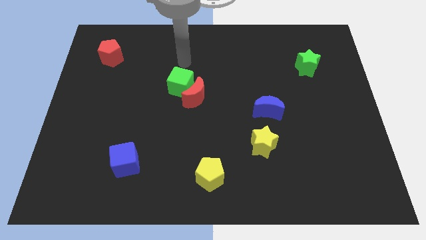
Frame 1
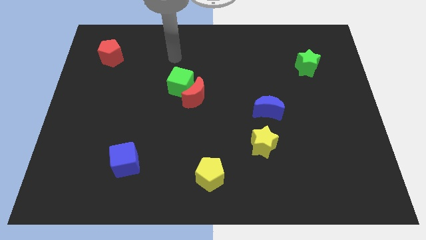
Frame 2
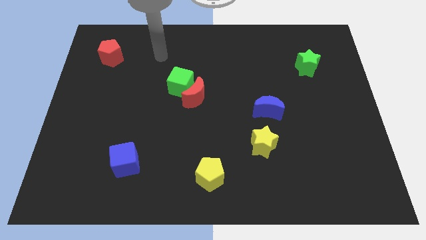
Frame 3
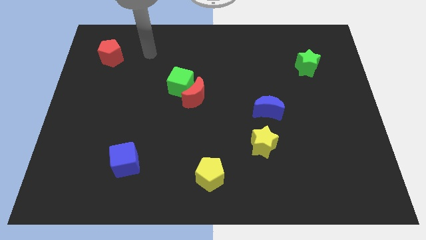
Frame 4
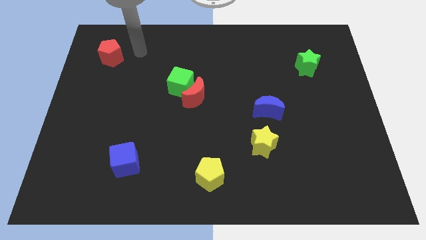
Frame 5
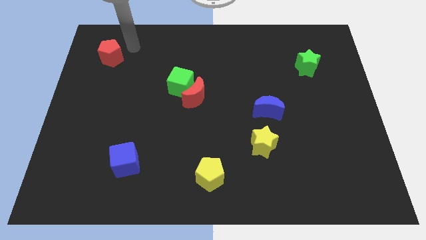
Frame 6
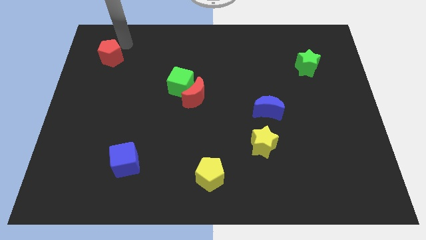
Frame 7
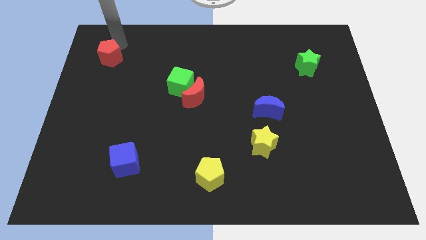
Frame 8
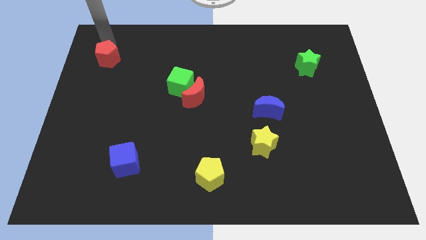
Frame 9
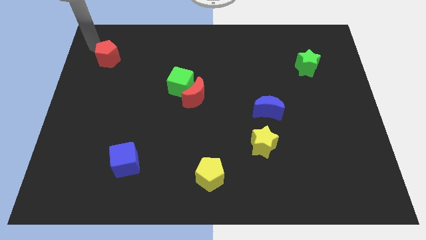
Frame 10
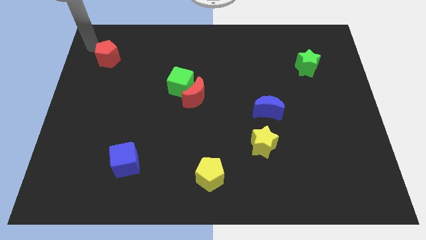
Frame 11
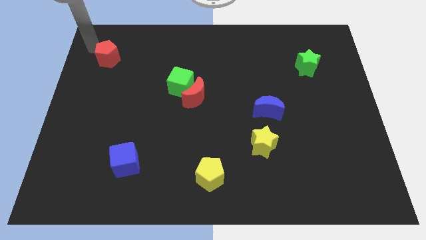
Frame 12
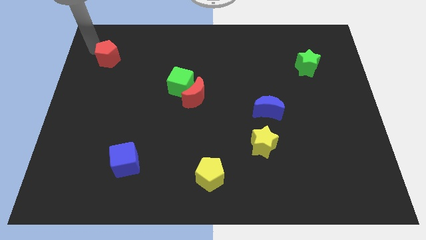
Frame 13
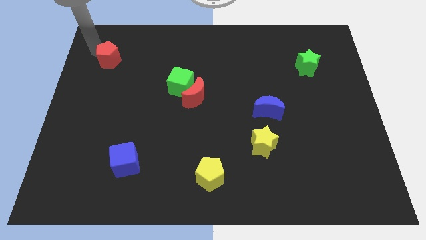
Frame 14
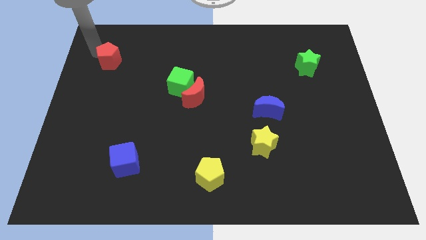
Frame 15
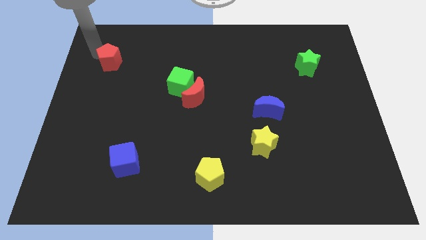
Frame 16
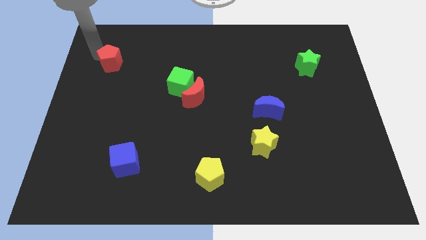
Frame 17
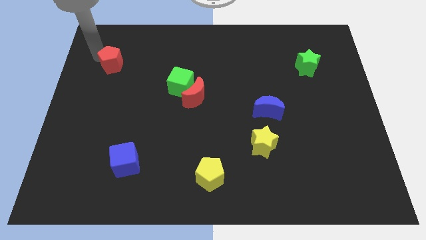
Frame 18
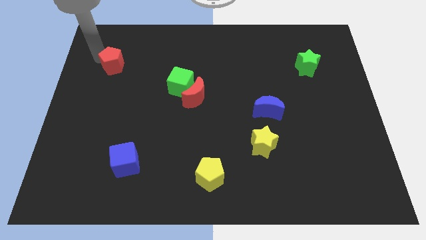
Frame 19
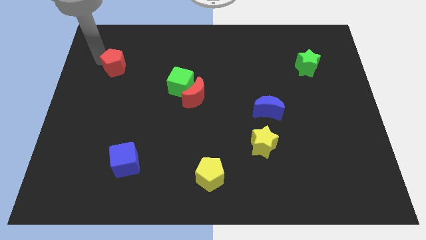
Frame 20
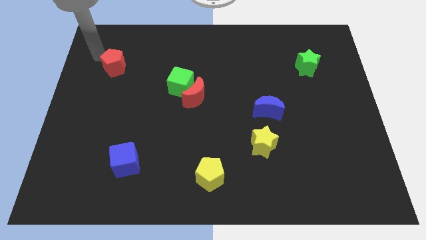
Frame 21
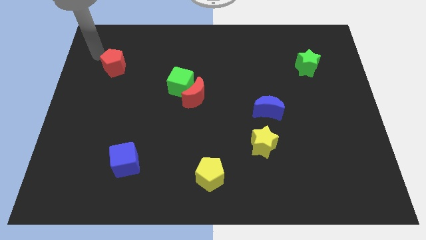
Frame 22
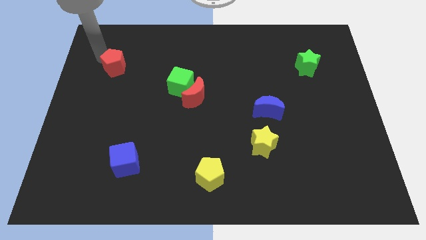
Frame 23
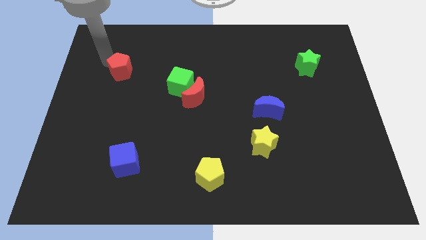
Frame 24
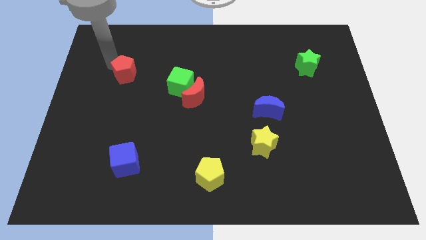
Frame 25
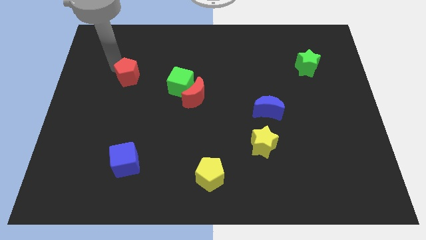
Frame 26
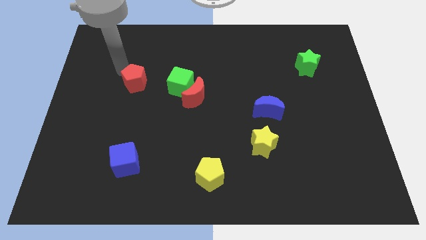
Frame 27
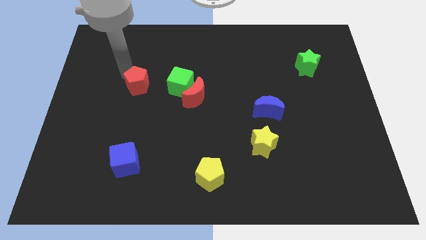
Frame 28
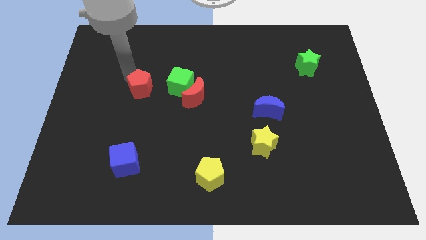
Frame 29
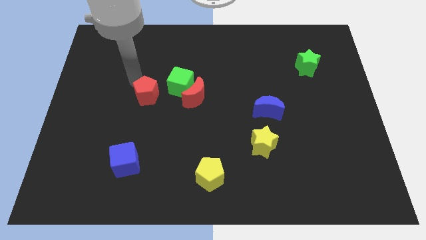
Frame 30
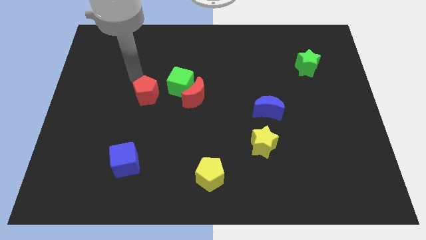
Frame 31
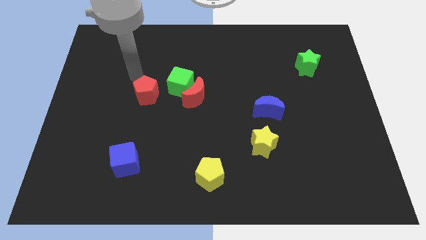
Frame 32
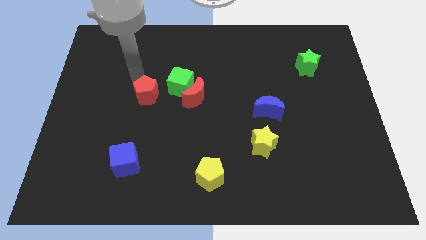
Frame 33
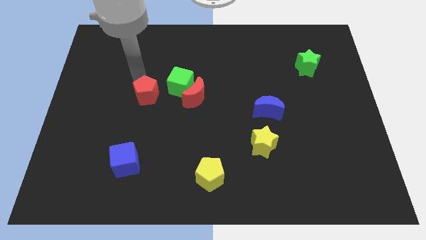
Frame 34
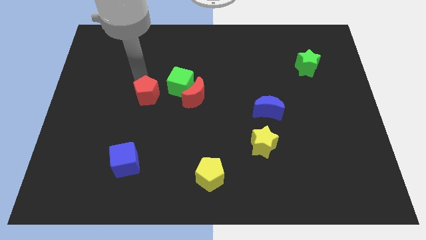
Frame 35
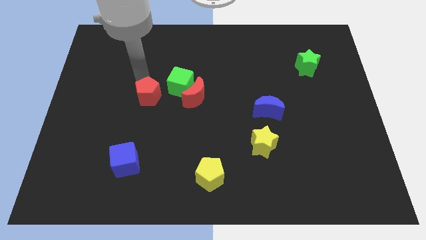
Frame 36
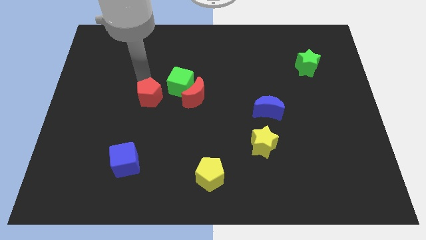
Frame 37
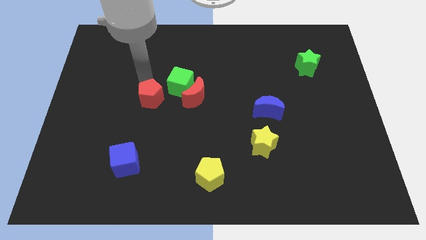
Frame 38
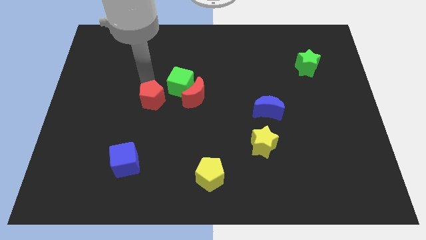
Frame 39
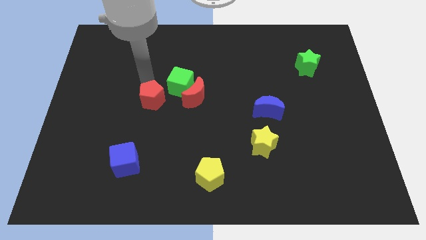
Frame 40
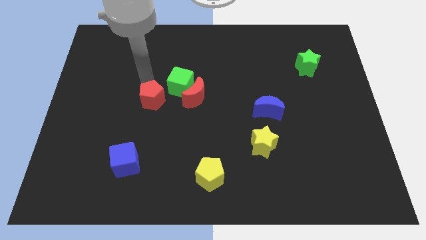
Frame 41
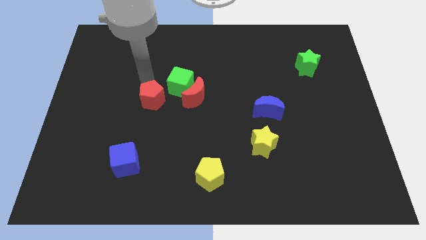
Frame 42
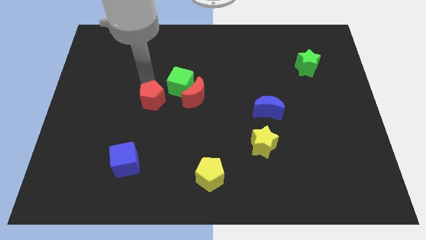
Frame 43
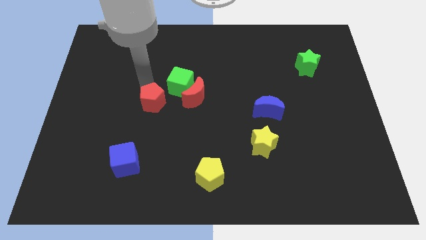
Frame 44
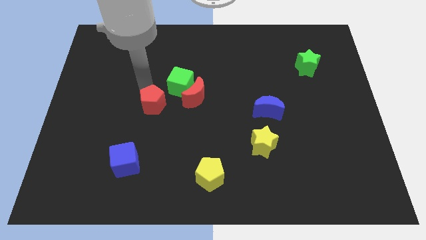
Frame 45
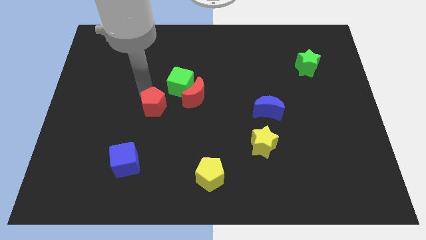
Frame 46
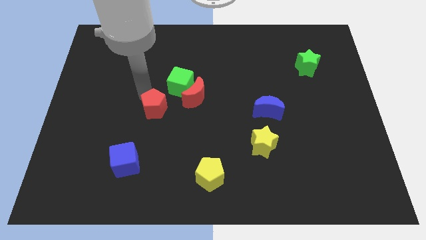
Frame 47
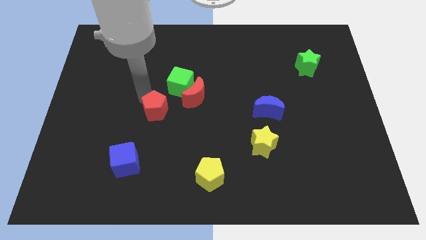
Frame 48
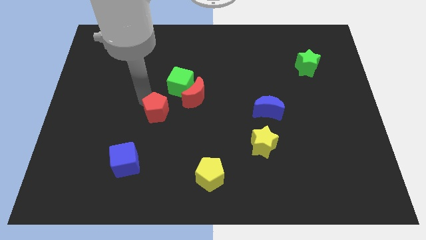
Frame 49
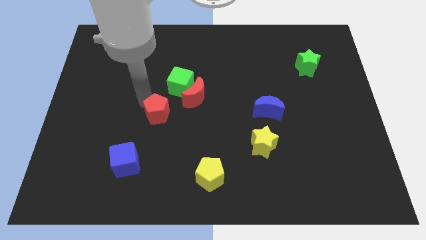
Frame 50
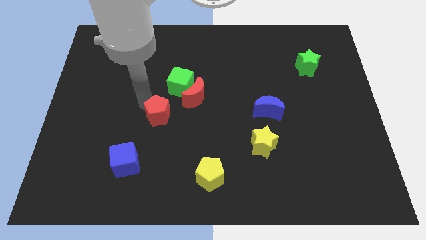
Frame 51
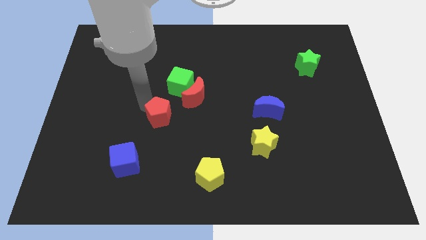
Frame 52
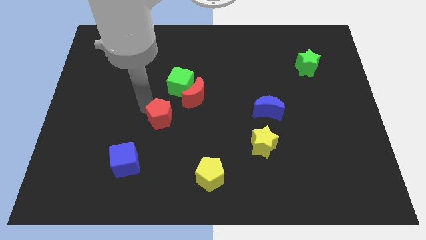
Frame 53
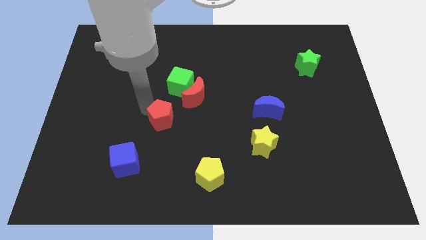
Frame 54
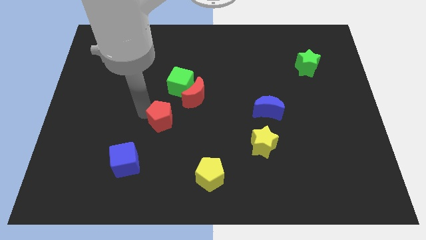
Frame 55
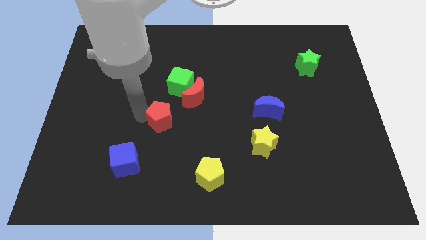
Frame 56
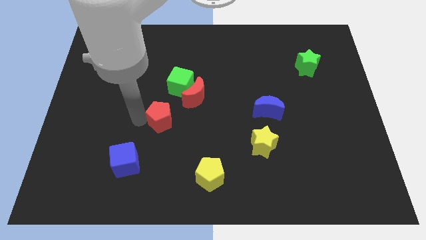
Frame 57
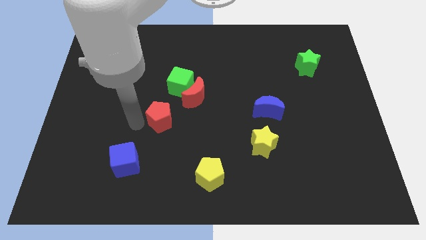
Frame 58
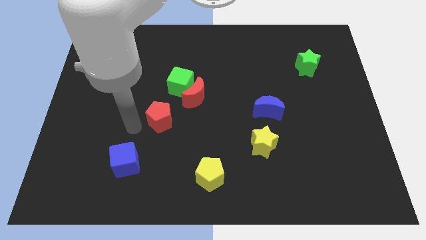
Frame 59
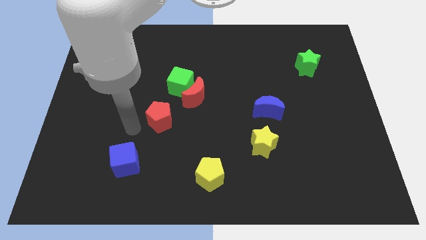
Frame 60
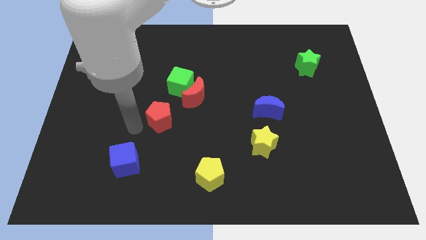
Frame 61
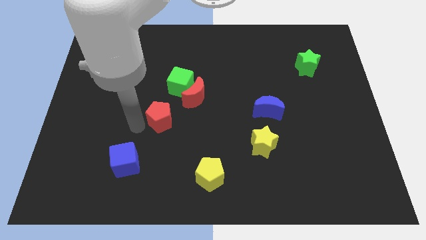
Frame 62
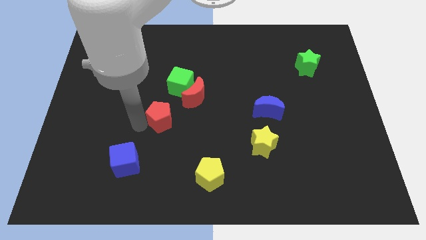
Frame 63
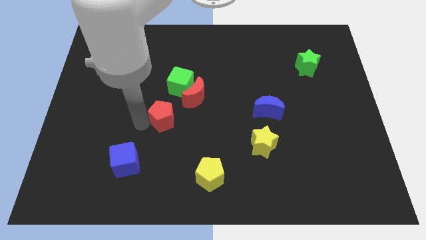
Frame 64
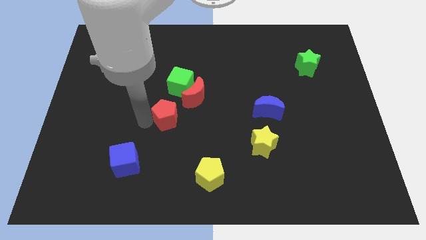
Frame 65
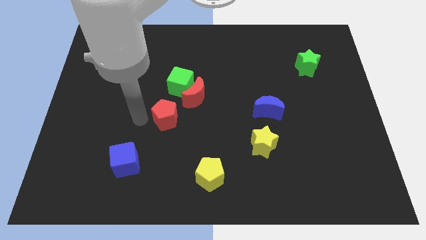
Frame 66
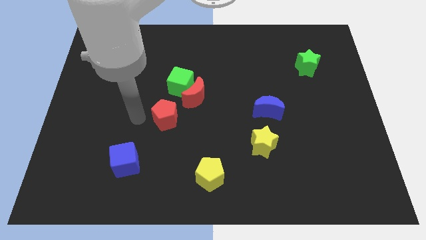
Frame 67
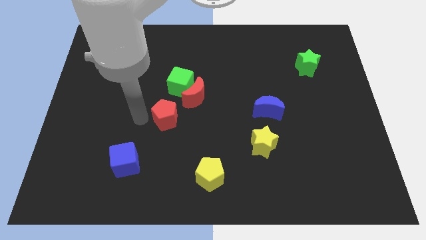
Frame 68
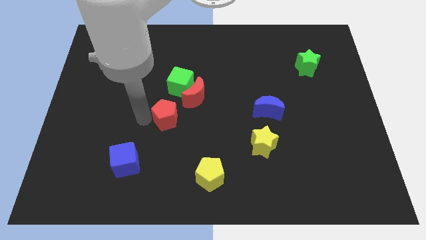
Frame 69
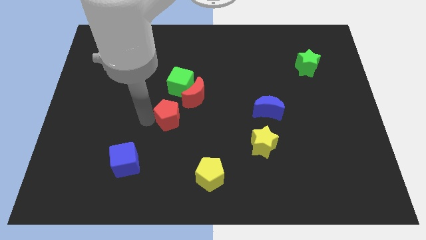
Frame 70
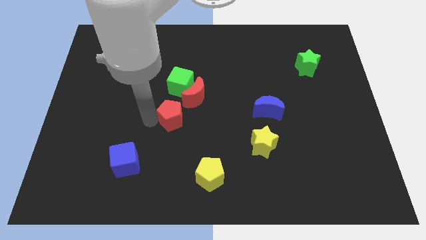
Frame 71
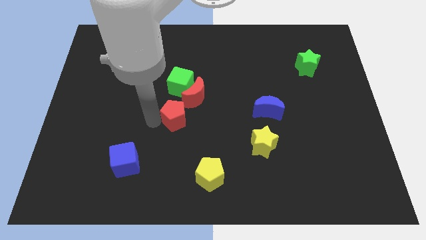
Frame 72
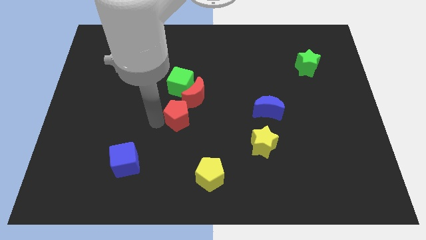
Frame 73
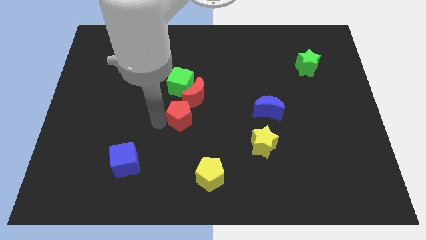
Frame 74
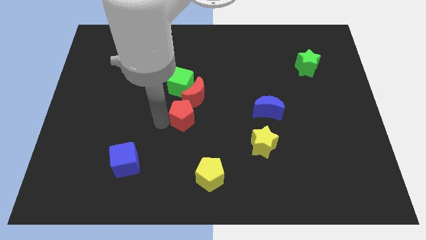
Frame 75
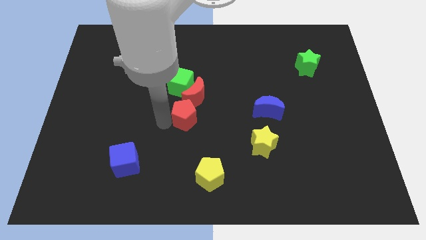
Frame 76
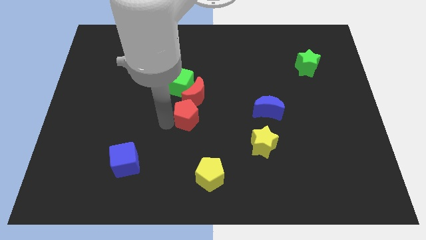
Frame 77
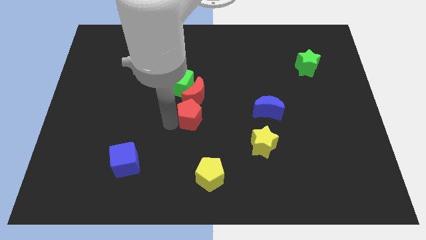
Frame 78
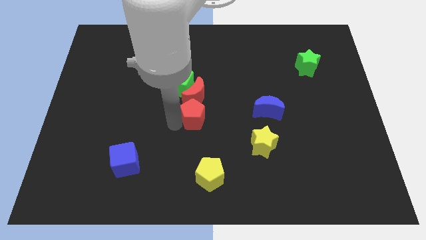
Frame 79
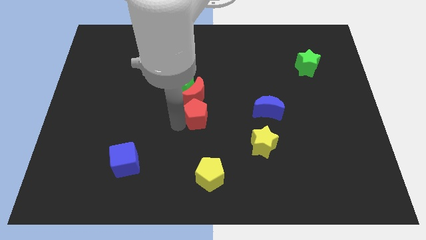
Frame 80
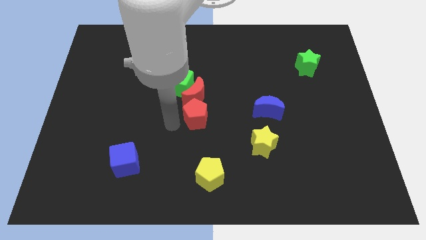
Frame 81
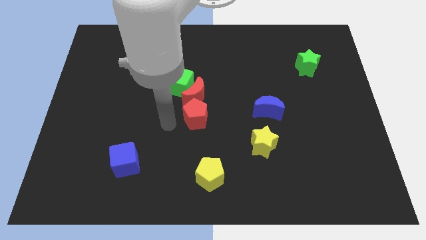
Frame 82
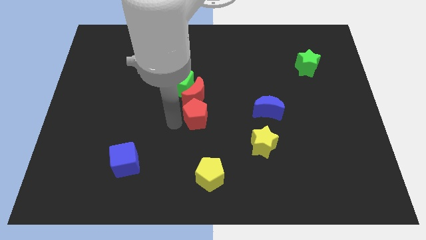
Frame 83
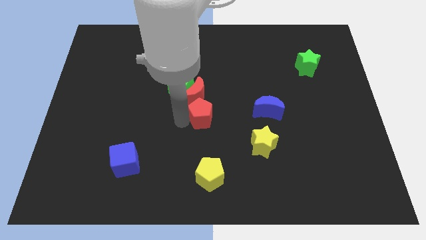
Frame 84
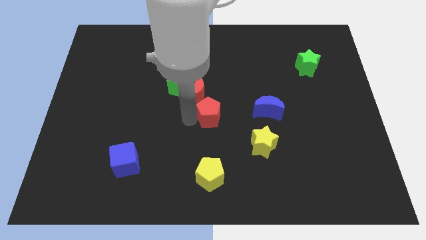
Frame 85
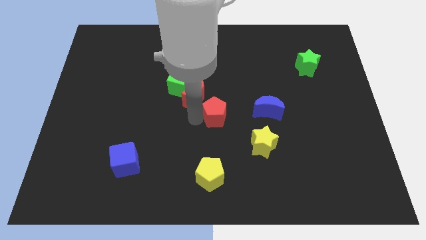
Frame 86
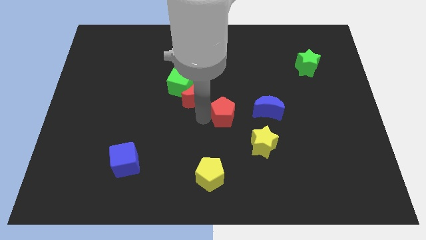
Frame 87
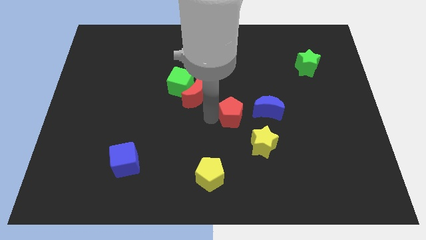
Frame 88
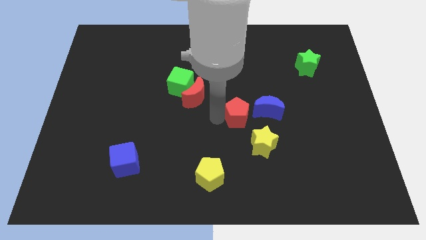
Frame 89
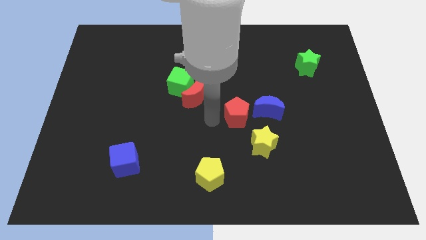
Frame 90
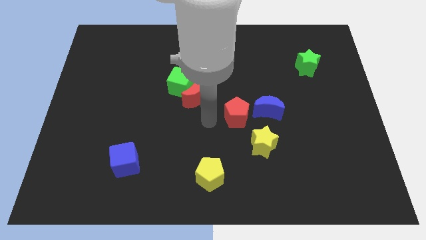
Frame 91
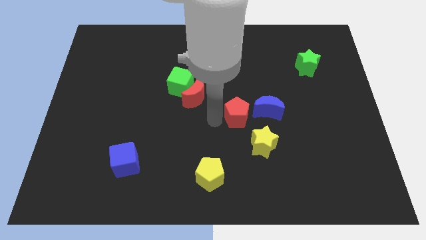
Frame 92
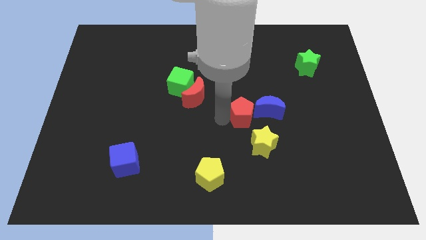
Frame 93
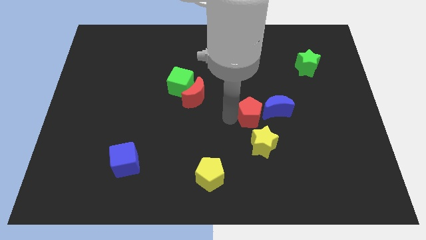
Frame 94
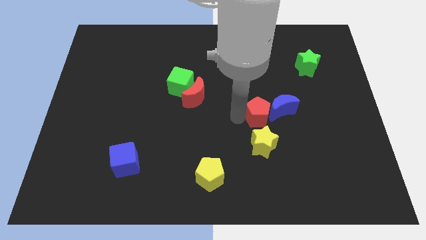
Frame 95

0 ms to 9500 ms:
move the red pentagon next to the blue moon
